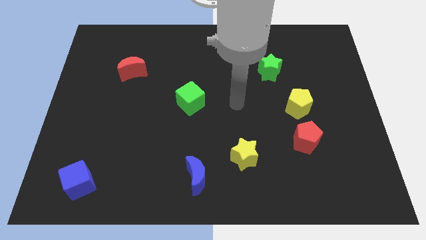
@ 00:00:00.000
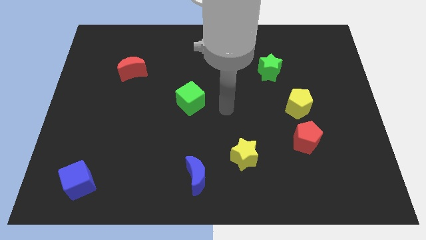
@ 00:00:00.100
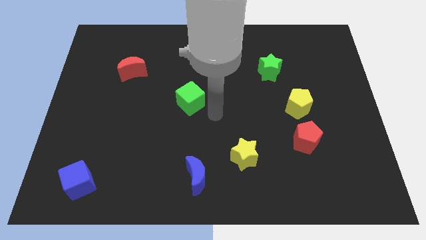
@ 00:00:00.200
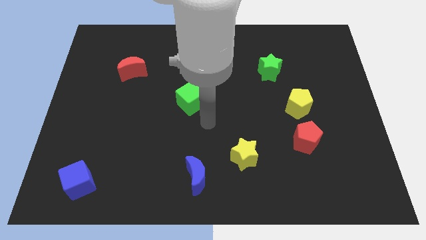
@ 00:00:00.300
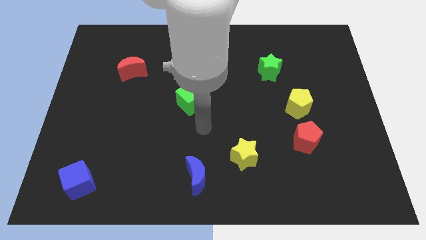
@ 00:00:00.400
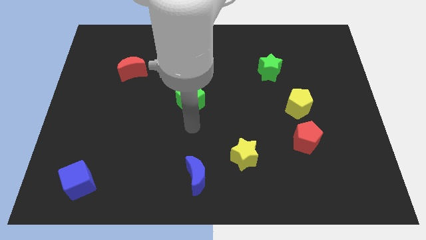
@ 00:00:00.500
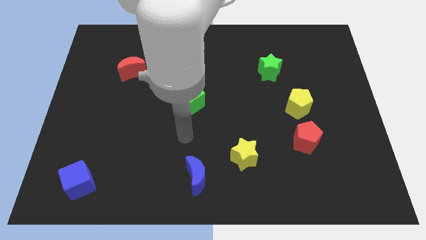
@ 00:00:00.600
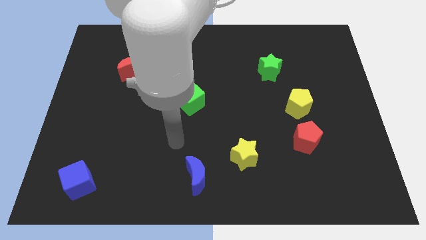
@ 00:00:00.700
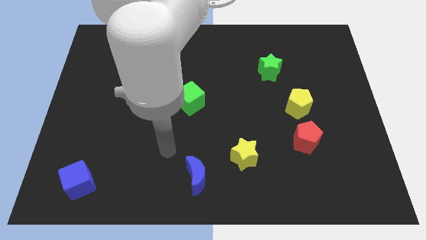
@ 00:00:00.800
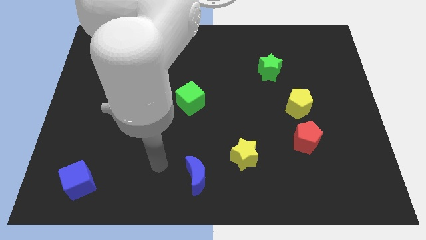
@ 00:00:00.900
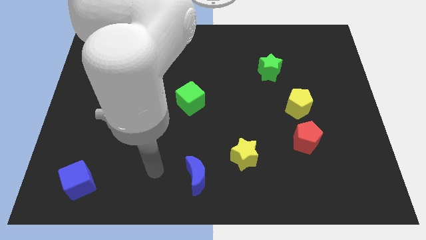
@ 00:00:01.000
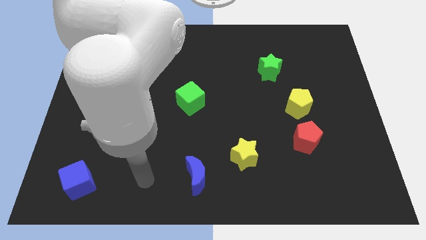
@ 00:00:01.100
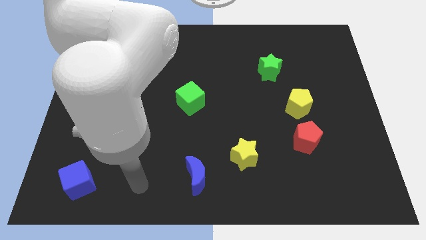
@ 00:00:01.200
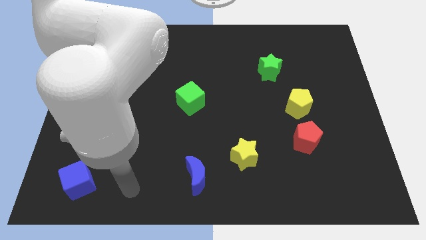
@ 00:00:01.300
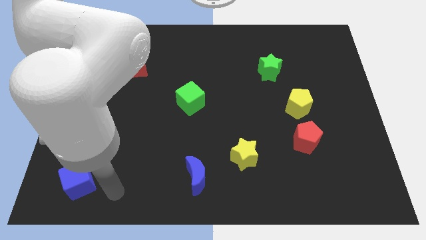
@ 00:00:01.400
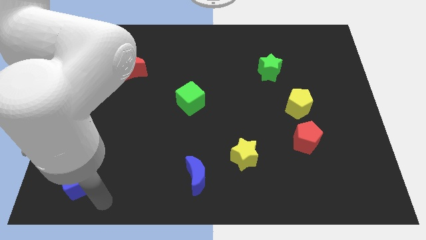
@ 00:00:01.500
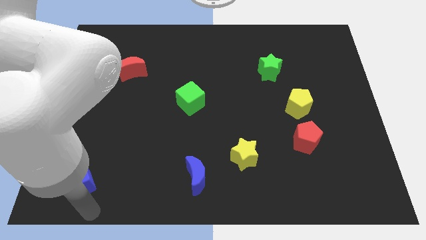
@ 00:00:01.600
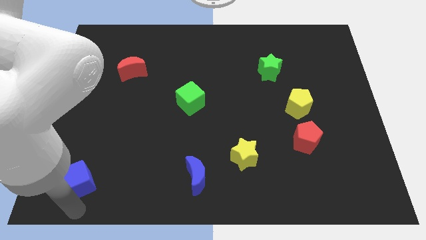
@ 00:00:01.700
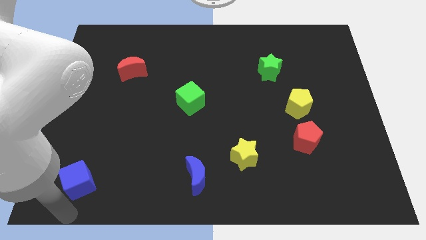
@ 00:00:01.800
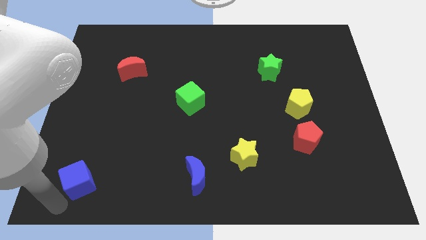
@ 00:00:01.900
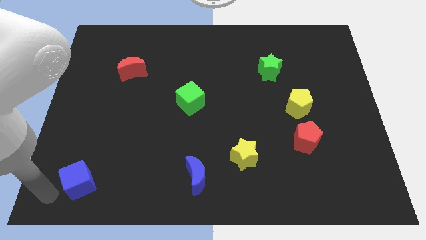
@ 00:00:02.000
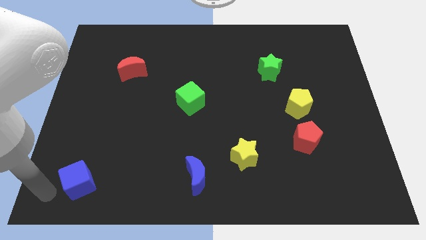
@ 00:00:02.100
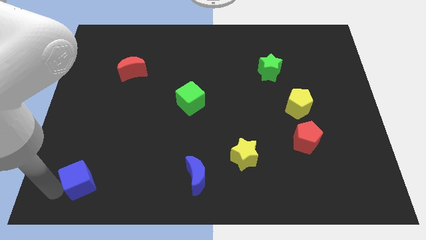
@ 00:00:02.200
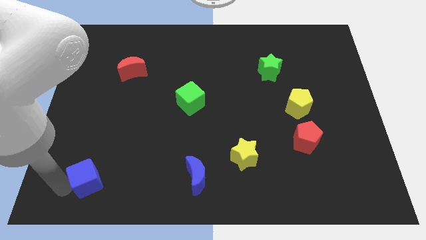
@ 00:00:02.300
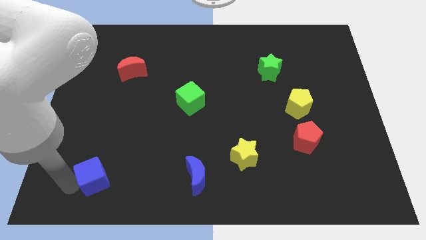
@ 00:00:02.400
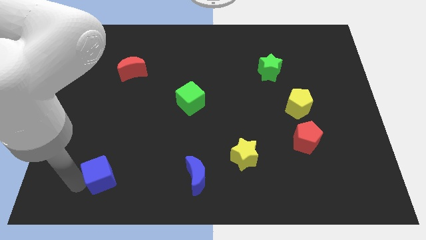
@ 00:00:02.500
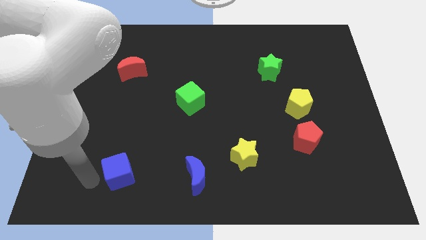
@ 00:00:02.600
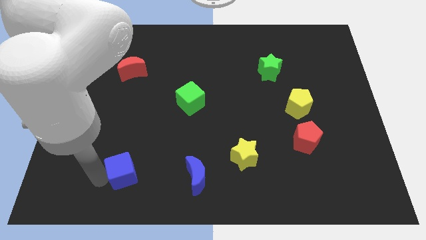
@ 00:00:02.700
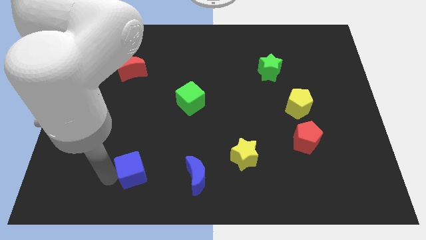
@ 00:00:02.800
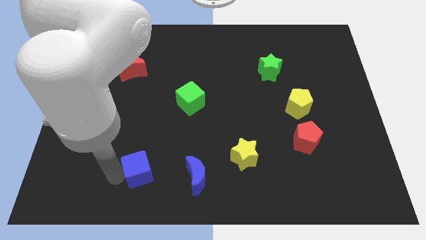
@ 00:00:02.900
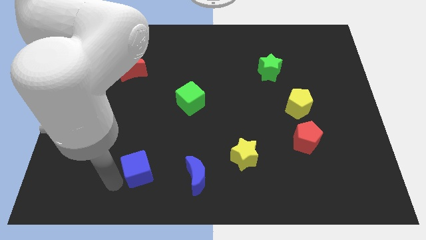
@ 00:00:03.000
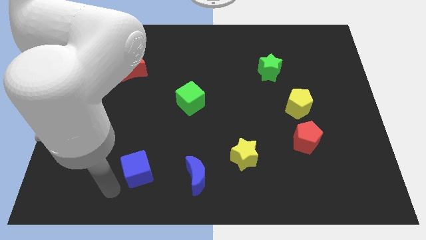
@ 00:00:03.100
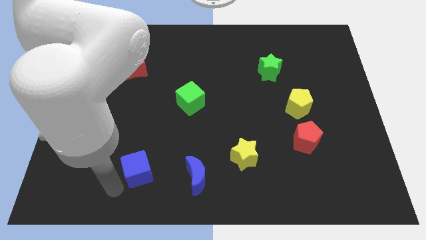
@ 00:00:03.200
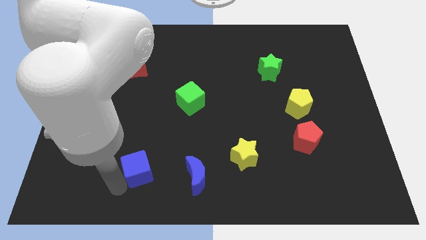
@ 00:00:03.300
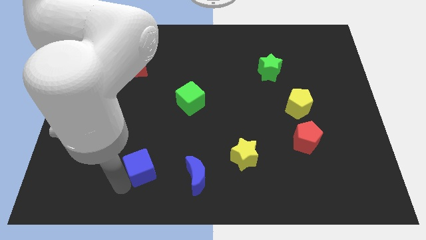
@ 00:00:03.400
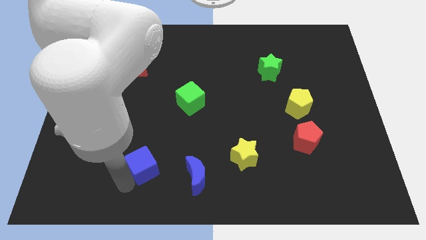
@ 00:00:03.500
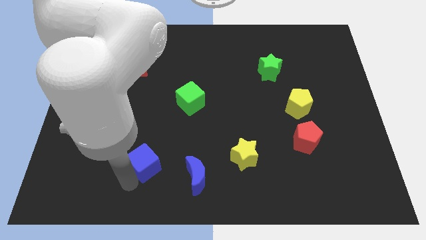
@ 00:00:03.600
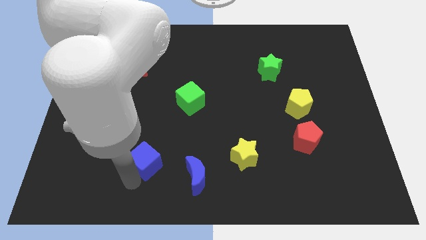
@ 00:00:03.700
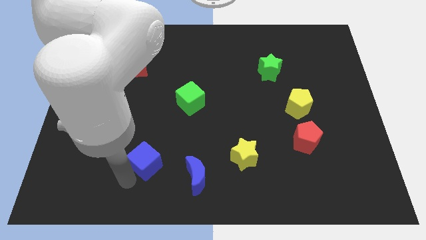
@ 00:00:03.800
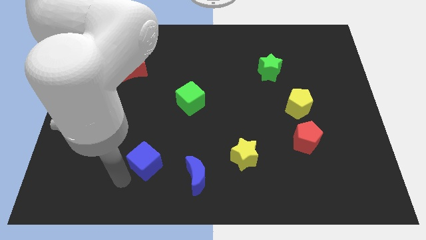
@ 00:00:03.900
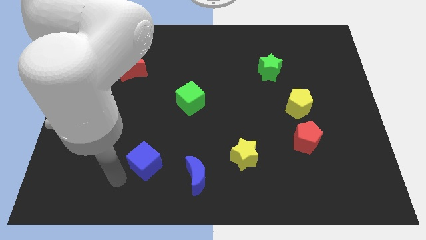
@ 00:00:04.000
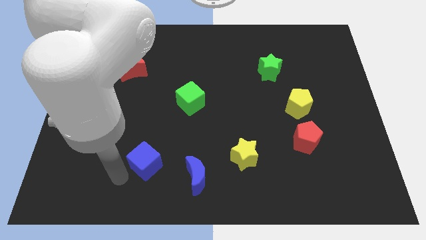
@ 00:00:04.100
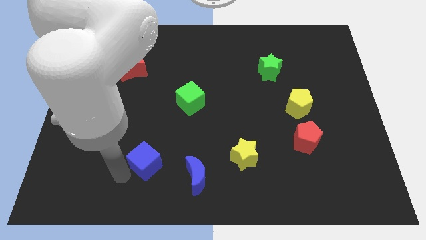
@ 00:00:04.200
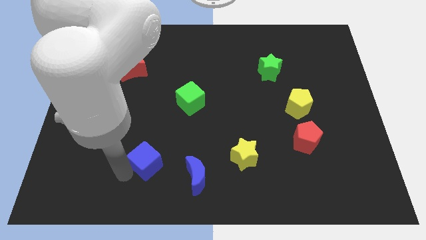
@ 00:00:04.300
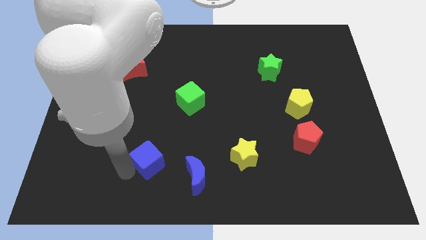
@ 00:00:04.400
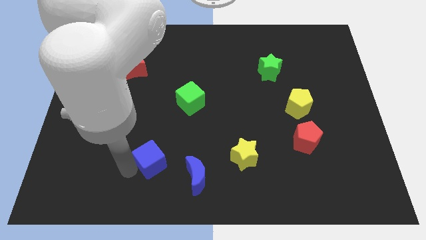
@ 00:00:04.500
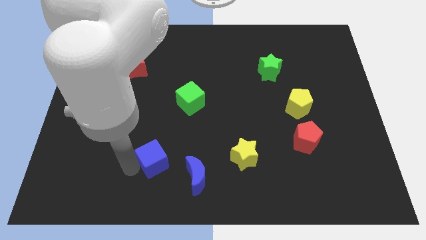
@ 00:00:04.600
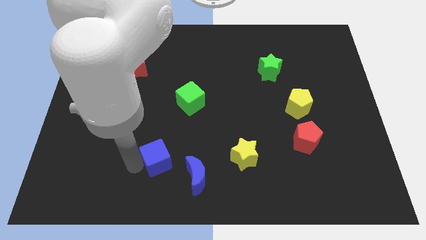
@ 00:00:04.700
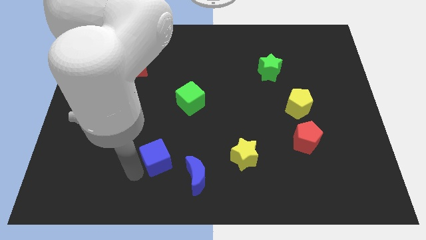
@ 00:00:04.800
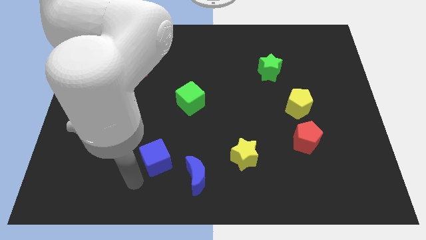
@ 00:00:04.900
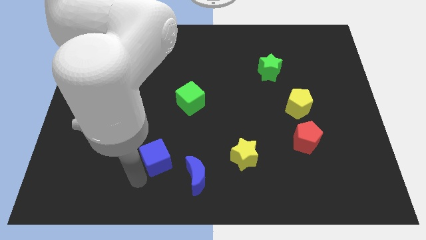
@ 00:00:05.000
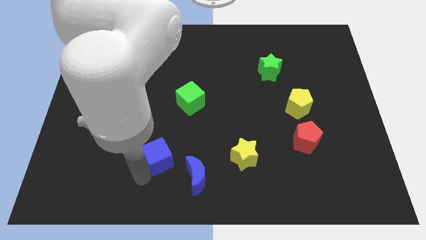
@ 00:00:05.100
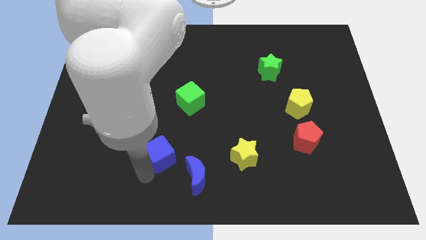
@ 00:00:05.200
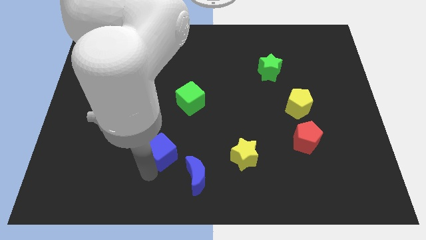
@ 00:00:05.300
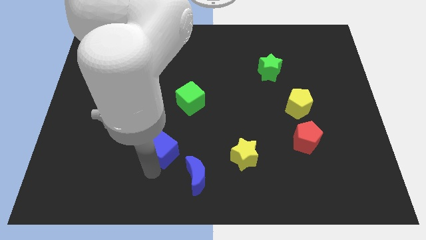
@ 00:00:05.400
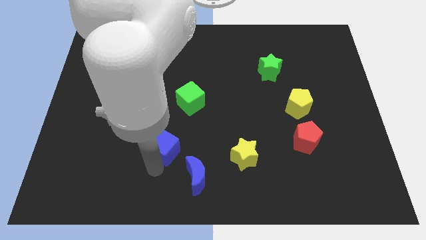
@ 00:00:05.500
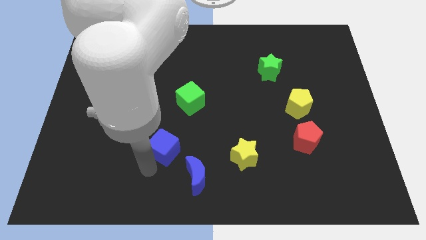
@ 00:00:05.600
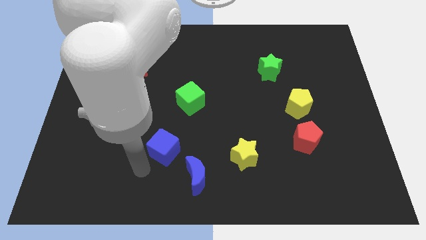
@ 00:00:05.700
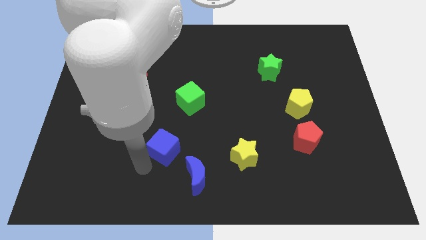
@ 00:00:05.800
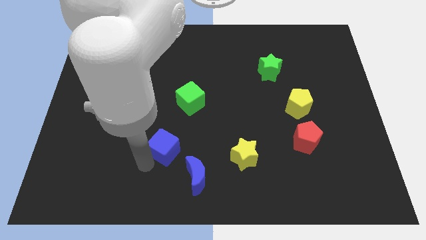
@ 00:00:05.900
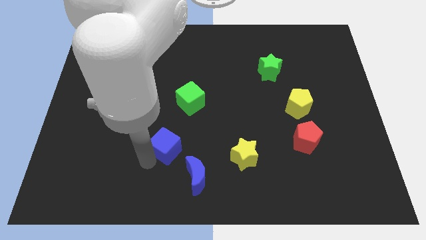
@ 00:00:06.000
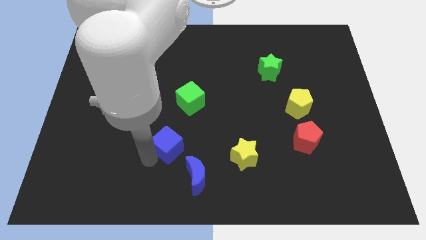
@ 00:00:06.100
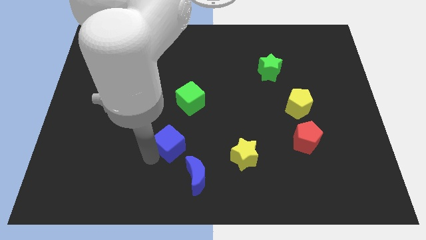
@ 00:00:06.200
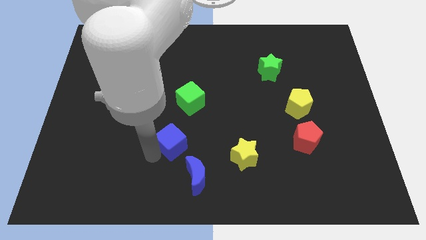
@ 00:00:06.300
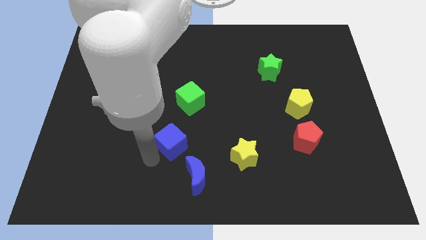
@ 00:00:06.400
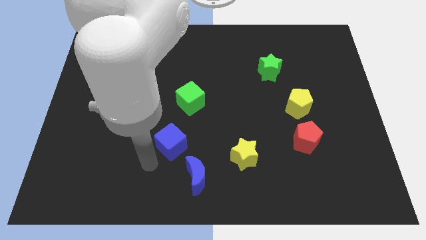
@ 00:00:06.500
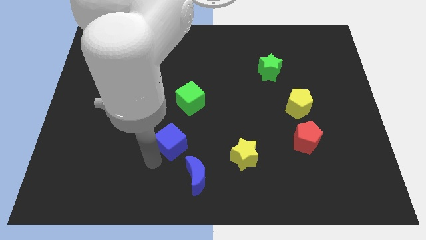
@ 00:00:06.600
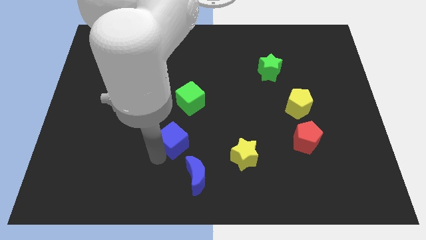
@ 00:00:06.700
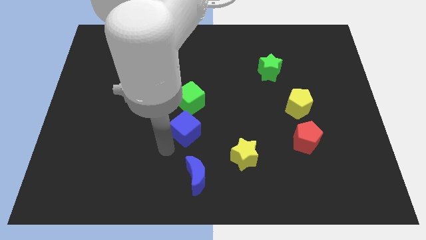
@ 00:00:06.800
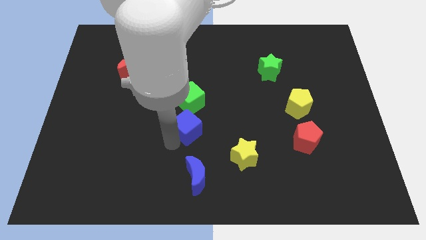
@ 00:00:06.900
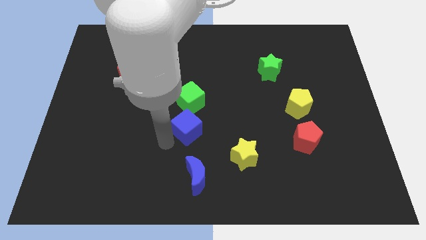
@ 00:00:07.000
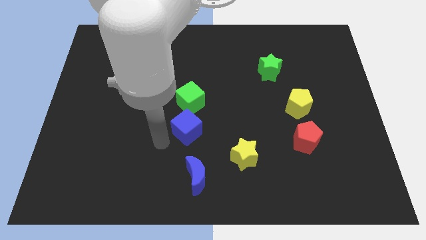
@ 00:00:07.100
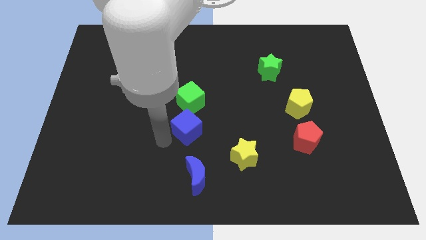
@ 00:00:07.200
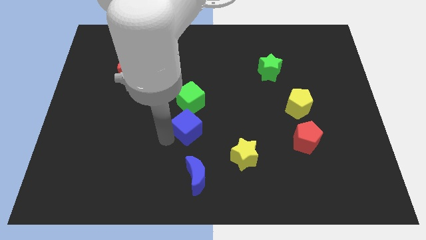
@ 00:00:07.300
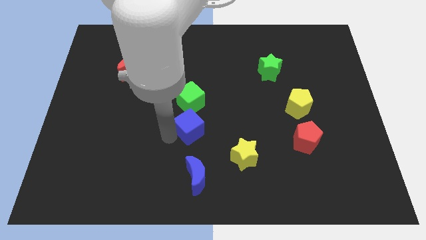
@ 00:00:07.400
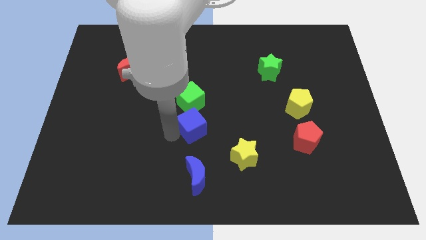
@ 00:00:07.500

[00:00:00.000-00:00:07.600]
push the blue cube diagonally down and to the right of the green cube
